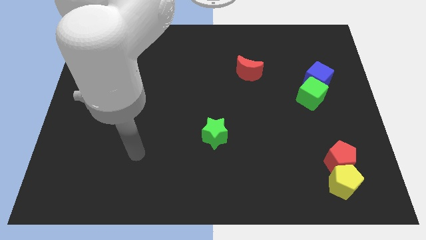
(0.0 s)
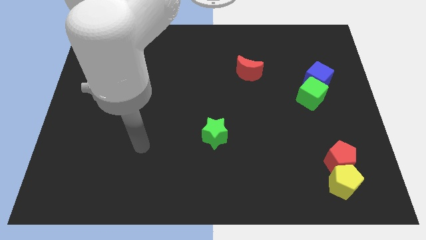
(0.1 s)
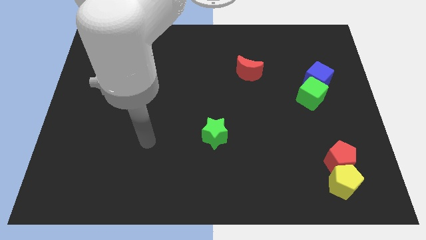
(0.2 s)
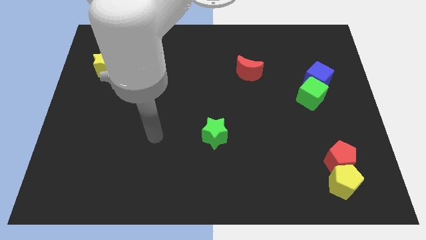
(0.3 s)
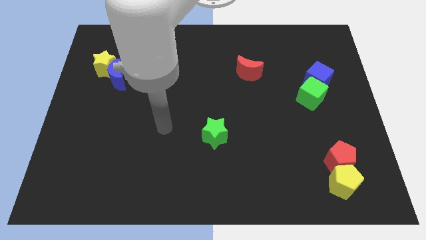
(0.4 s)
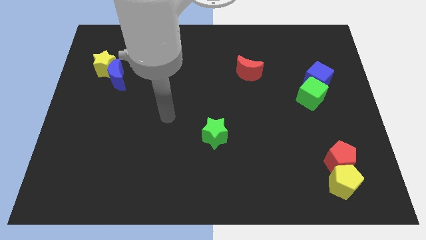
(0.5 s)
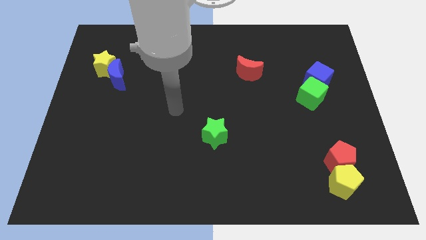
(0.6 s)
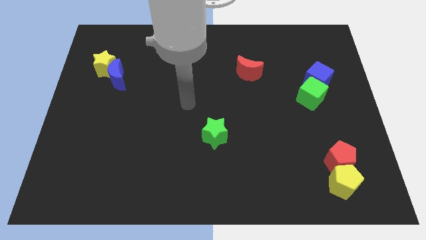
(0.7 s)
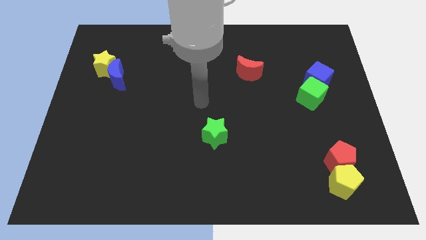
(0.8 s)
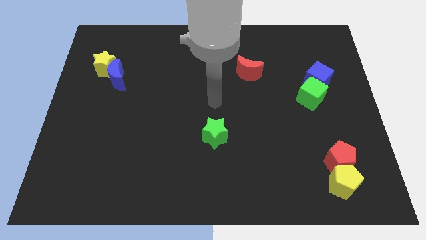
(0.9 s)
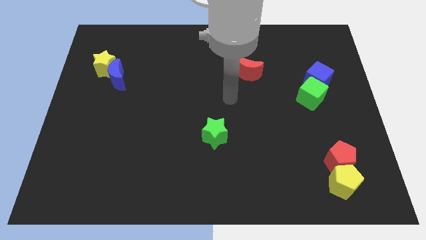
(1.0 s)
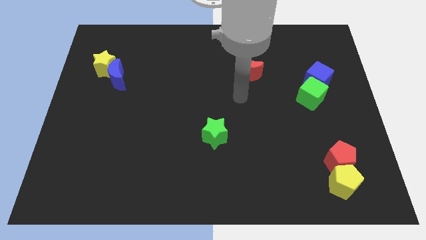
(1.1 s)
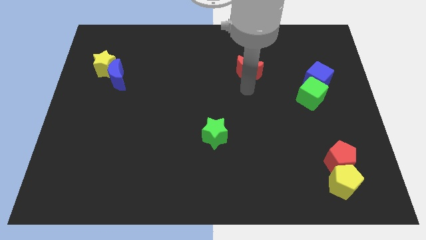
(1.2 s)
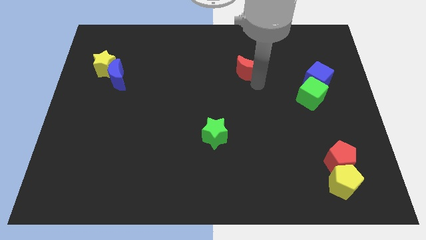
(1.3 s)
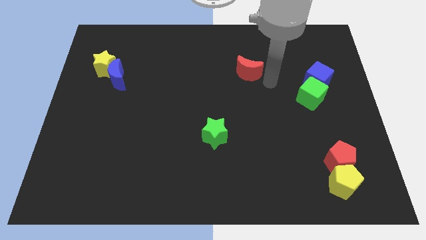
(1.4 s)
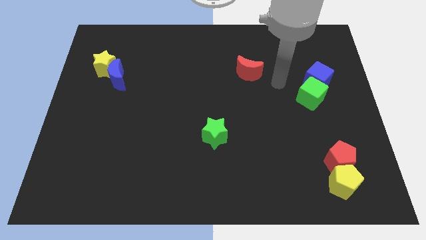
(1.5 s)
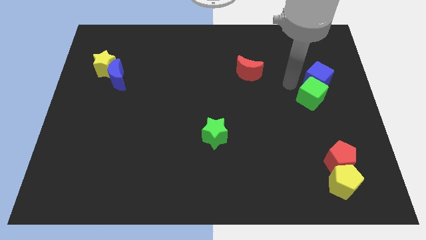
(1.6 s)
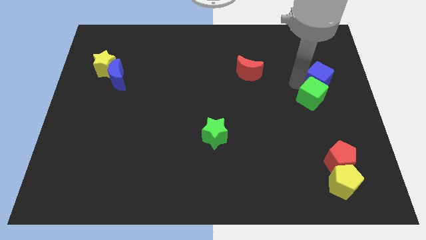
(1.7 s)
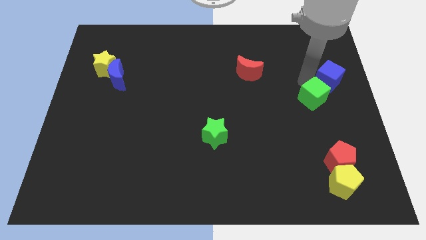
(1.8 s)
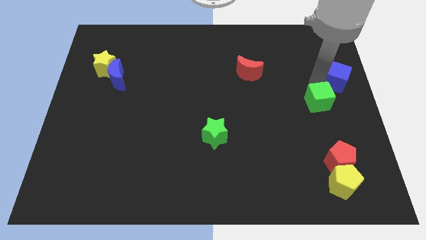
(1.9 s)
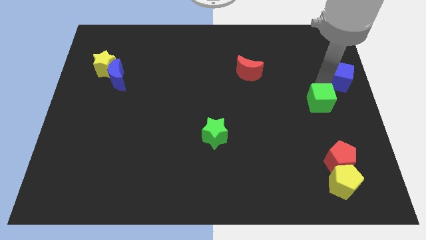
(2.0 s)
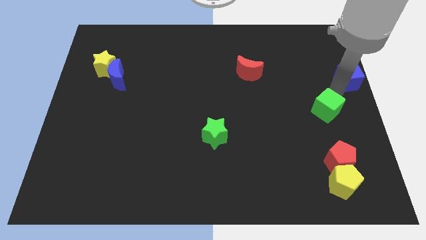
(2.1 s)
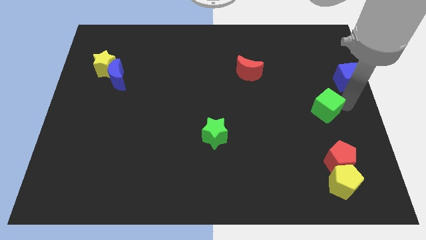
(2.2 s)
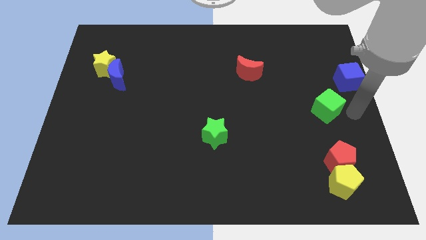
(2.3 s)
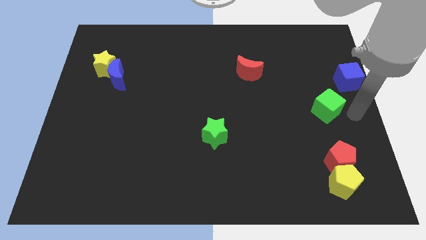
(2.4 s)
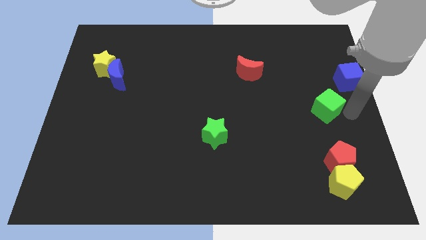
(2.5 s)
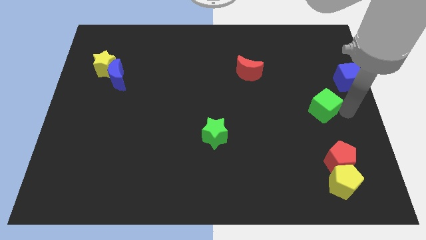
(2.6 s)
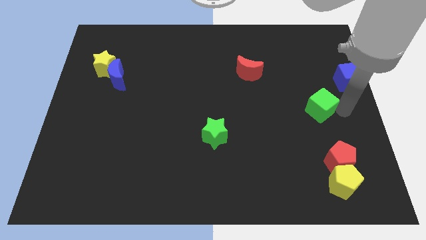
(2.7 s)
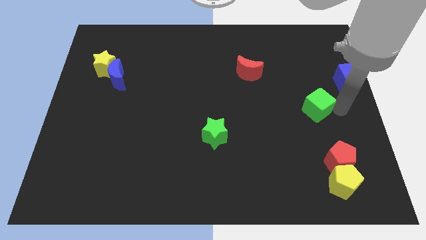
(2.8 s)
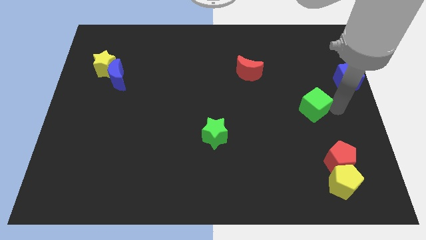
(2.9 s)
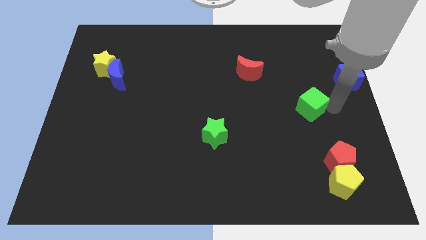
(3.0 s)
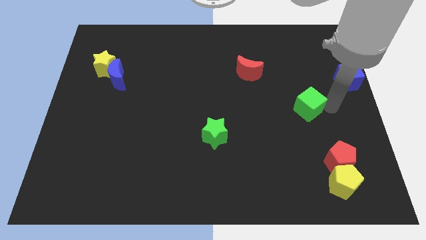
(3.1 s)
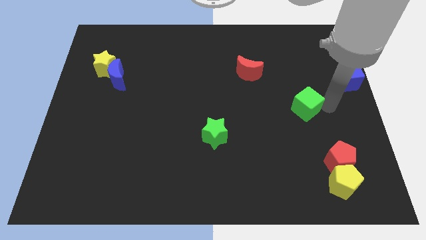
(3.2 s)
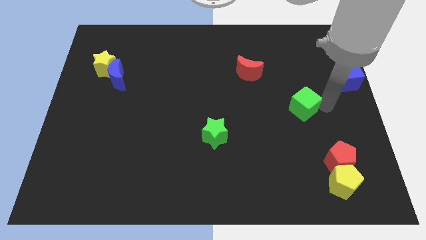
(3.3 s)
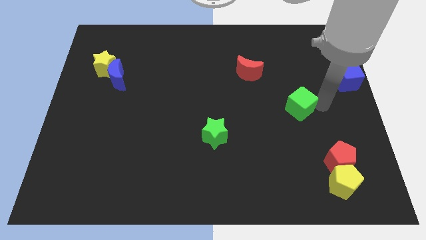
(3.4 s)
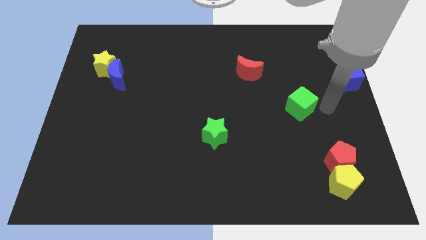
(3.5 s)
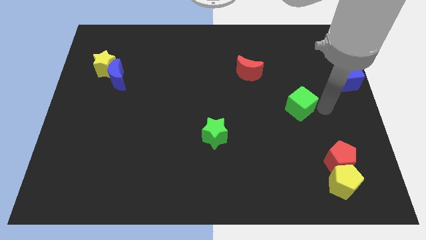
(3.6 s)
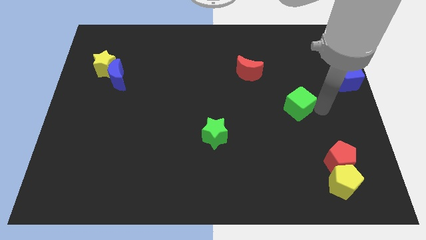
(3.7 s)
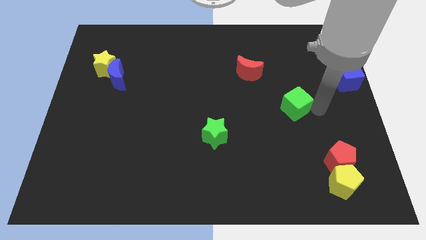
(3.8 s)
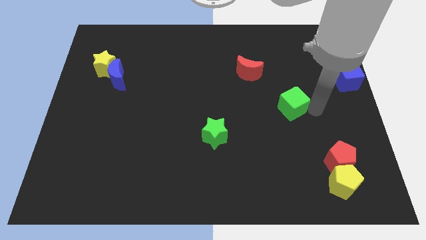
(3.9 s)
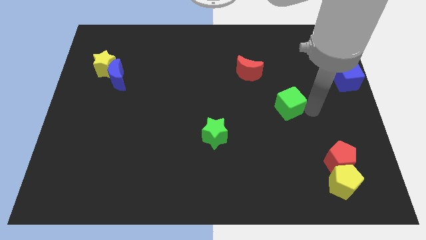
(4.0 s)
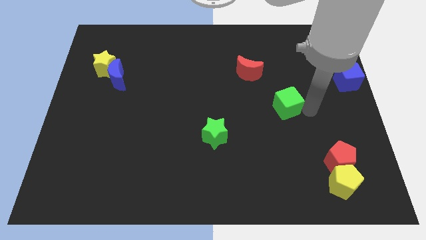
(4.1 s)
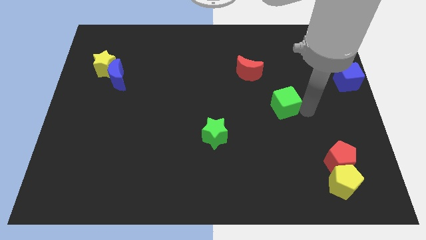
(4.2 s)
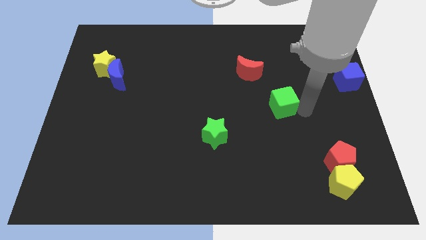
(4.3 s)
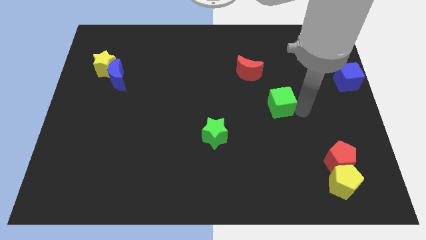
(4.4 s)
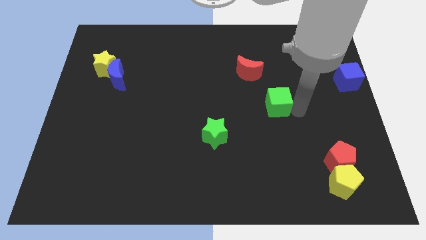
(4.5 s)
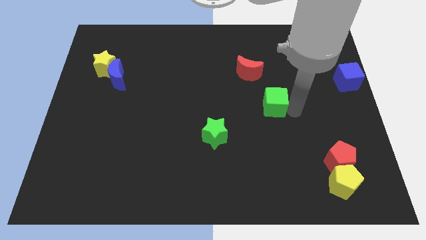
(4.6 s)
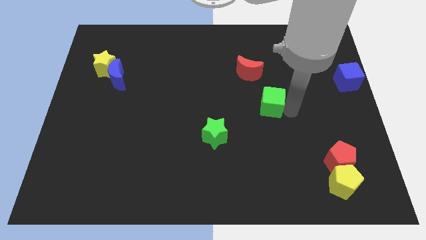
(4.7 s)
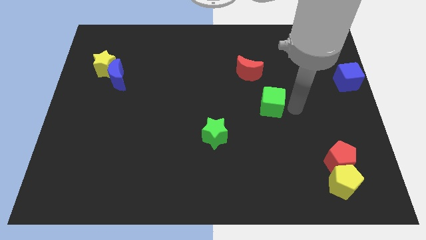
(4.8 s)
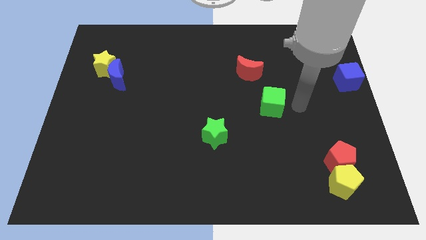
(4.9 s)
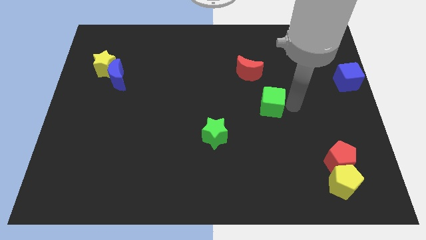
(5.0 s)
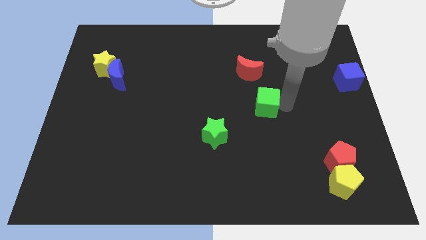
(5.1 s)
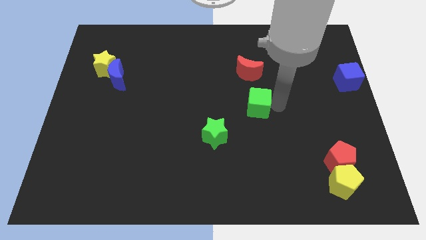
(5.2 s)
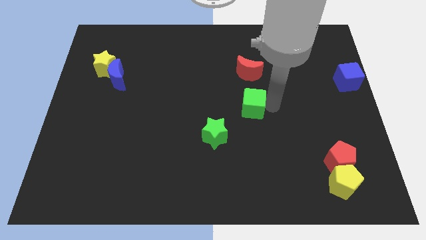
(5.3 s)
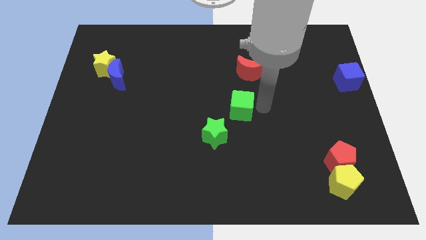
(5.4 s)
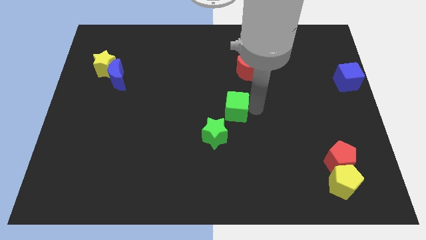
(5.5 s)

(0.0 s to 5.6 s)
slide the green cube to the top side of the green star

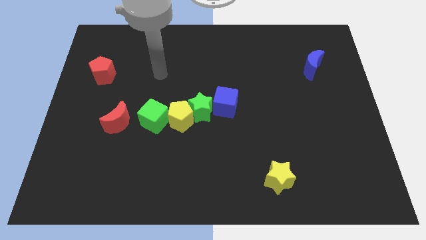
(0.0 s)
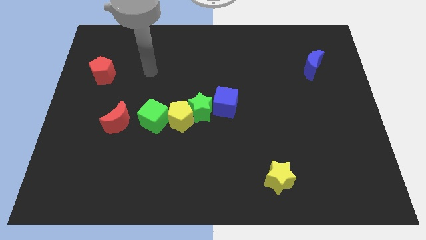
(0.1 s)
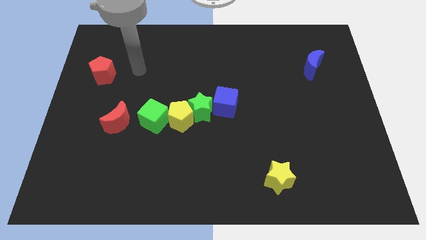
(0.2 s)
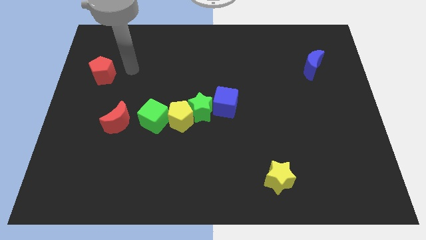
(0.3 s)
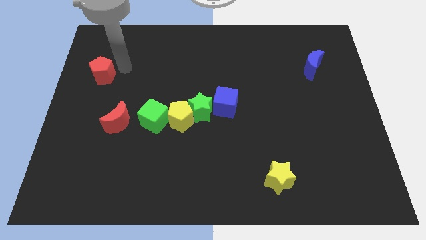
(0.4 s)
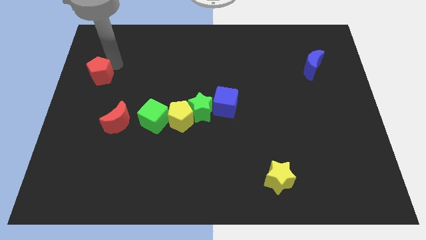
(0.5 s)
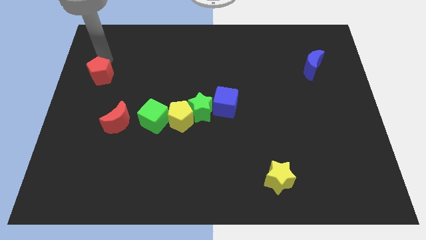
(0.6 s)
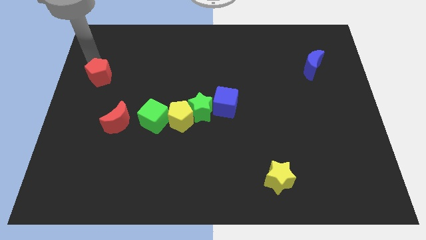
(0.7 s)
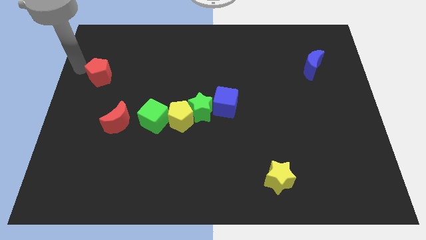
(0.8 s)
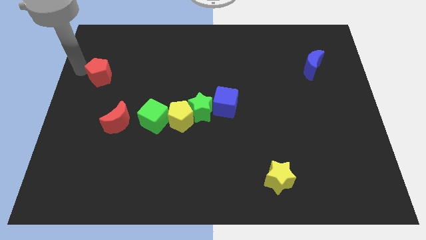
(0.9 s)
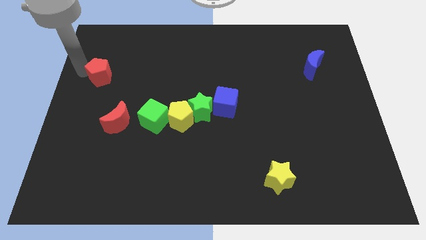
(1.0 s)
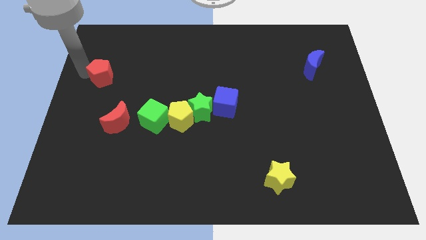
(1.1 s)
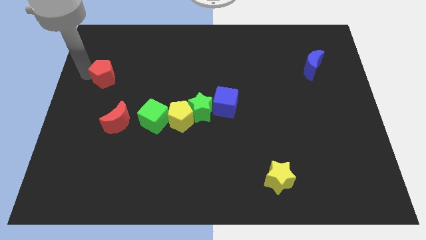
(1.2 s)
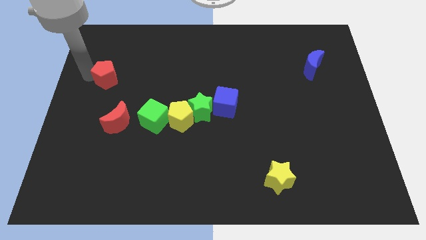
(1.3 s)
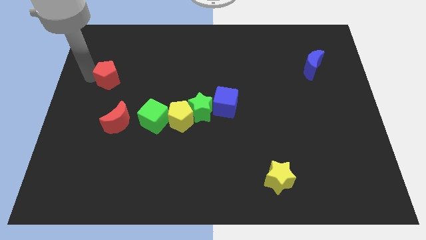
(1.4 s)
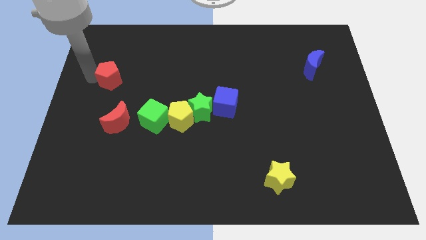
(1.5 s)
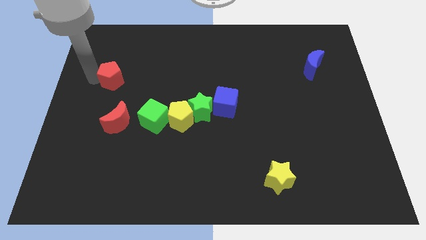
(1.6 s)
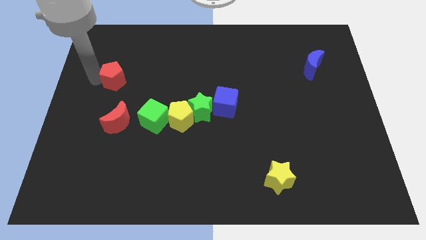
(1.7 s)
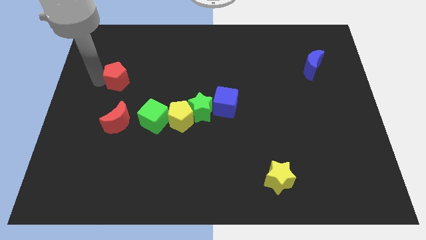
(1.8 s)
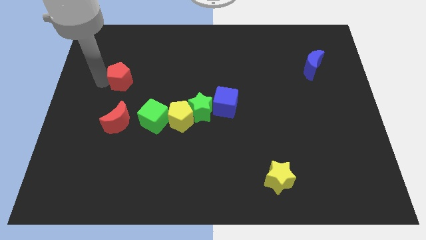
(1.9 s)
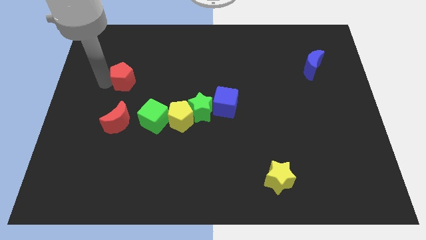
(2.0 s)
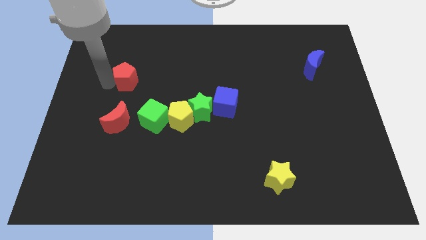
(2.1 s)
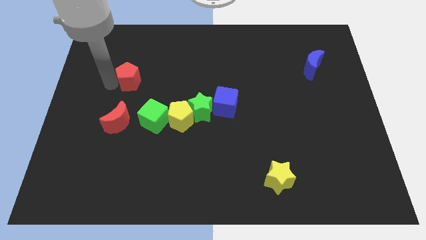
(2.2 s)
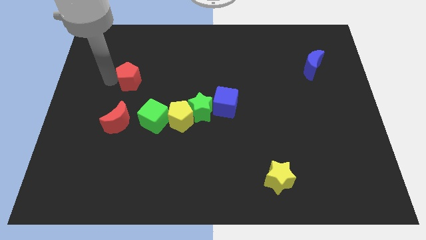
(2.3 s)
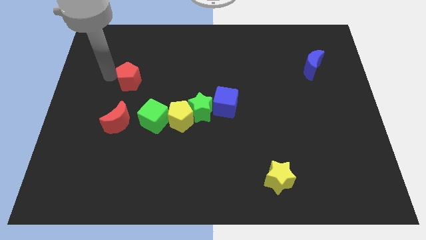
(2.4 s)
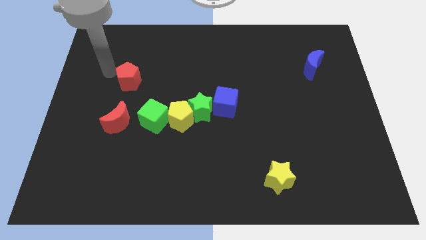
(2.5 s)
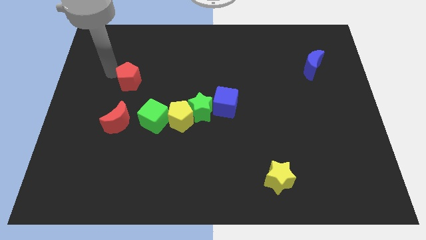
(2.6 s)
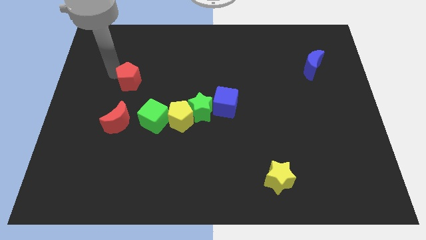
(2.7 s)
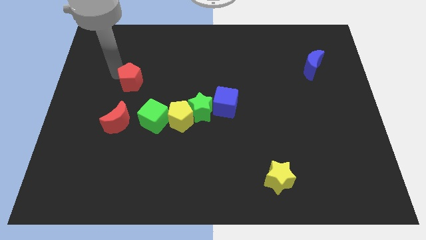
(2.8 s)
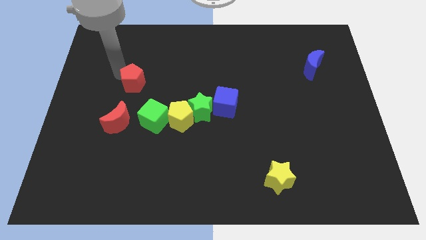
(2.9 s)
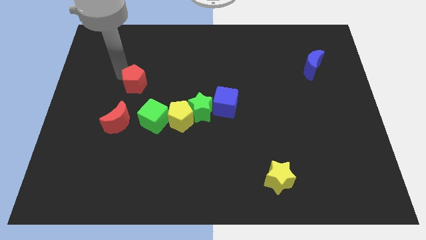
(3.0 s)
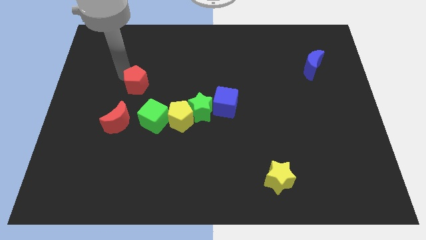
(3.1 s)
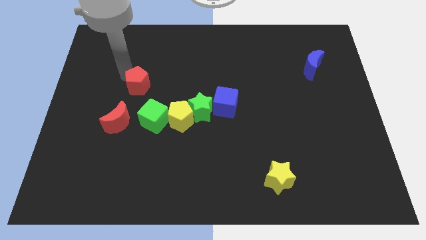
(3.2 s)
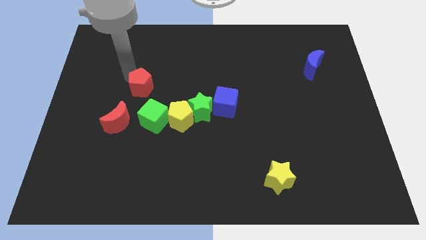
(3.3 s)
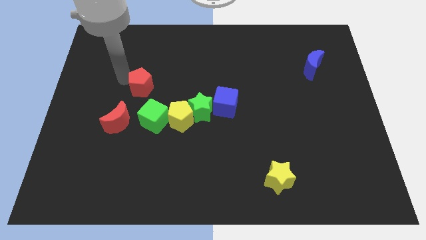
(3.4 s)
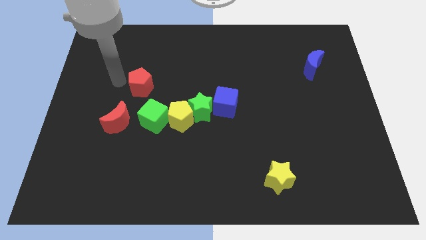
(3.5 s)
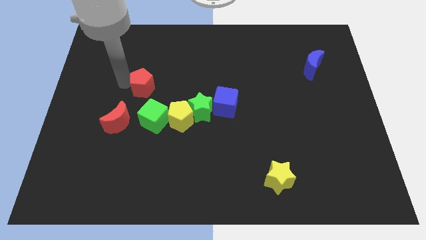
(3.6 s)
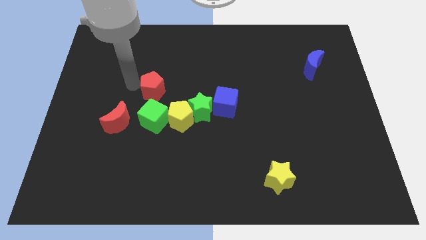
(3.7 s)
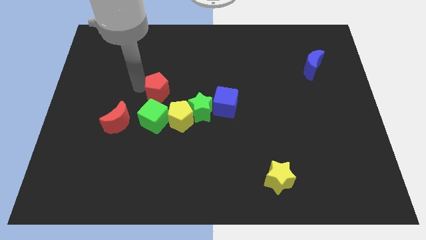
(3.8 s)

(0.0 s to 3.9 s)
slide the red pentagon to the top left side of the green star
